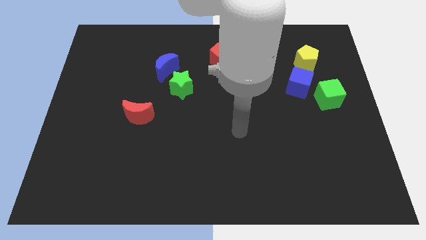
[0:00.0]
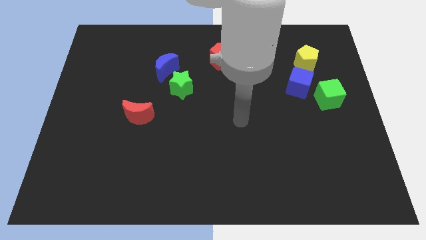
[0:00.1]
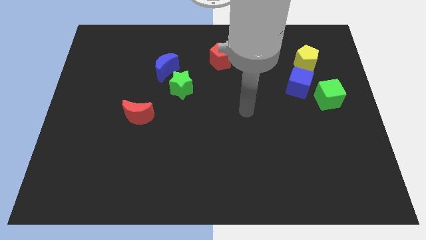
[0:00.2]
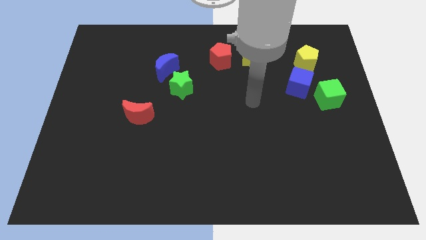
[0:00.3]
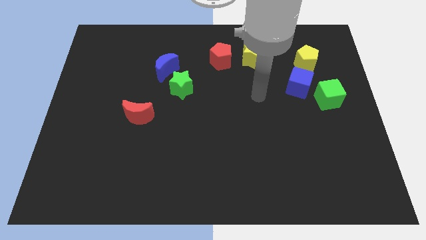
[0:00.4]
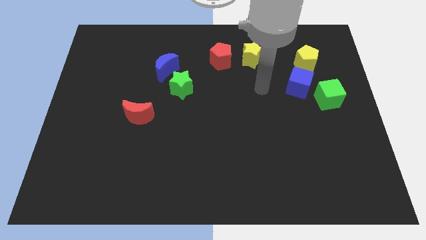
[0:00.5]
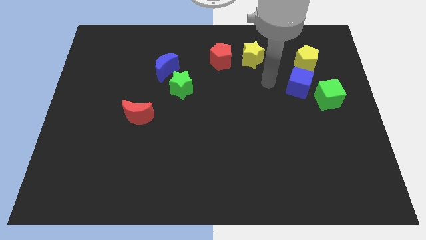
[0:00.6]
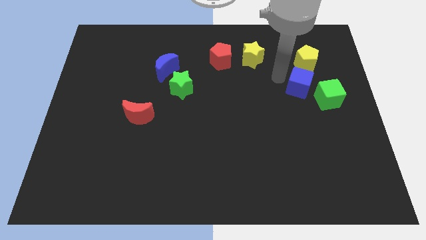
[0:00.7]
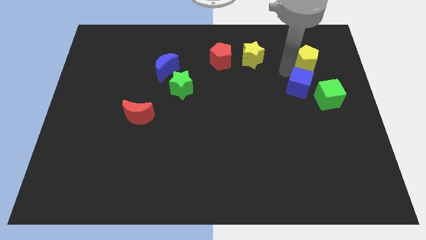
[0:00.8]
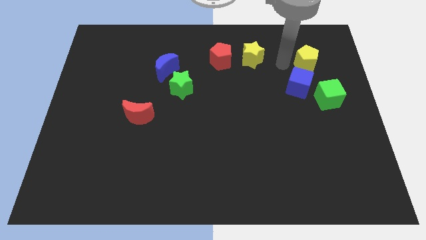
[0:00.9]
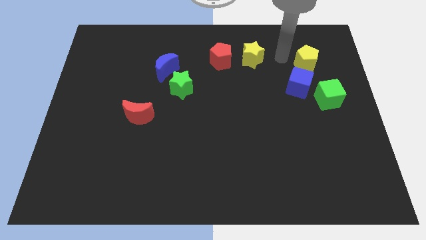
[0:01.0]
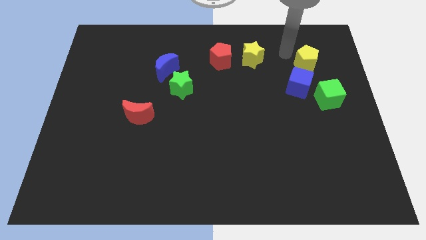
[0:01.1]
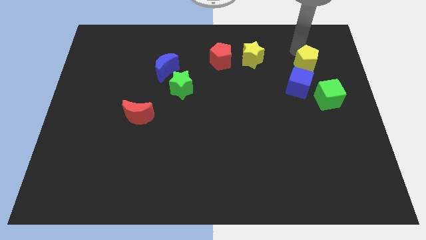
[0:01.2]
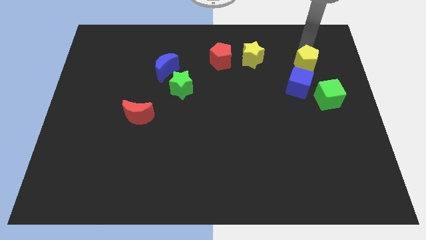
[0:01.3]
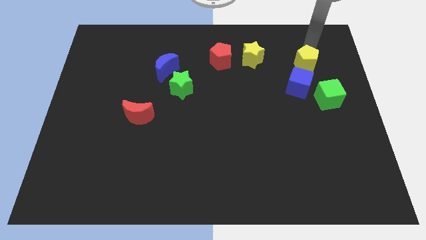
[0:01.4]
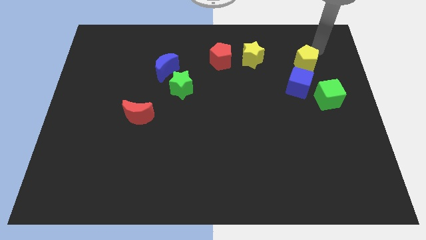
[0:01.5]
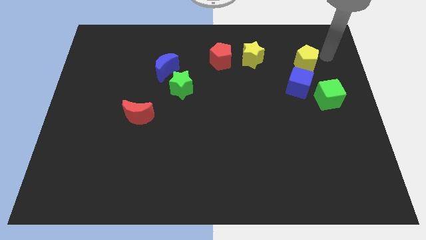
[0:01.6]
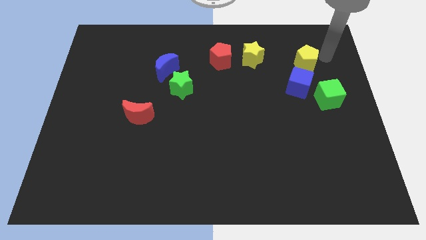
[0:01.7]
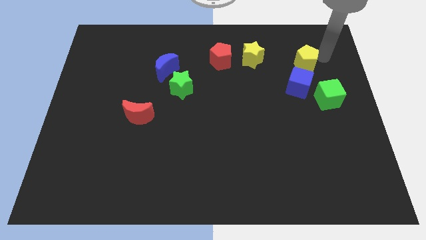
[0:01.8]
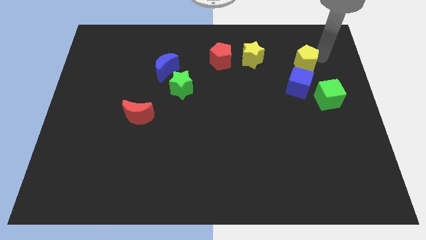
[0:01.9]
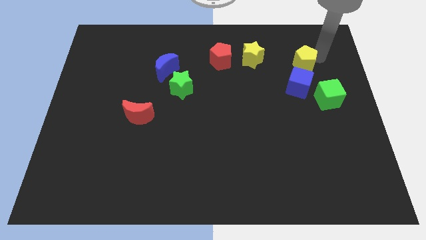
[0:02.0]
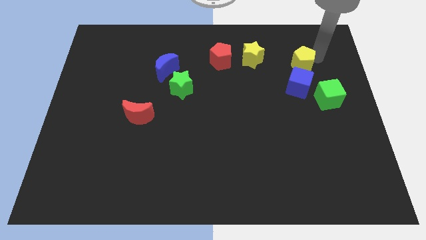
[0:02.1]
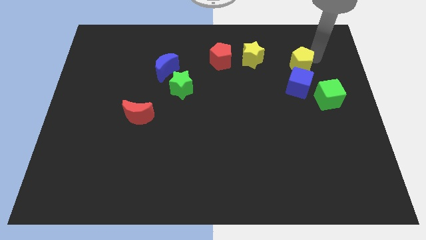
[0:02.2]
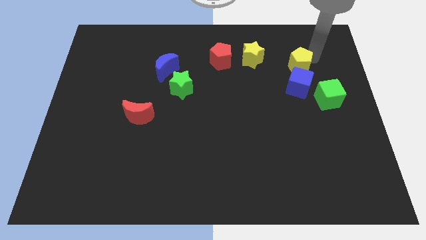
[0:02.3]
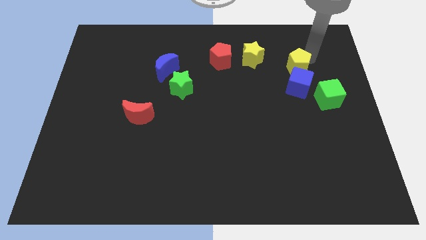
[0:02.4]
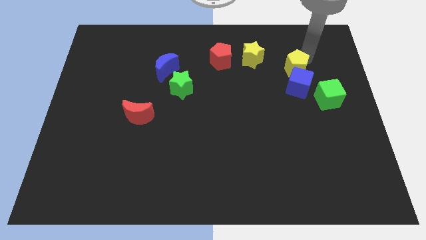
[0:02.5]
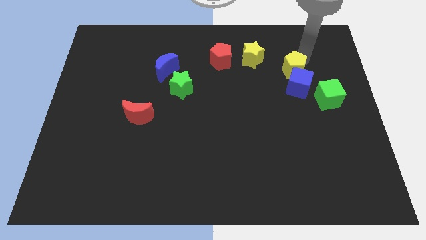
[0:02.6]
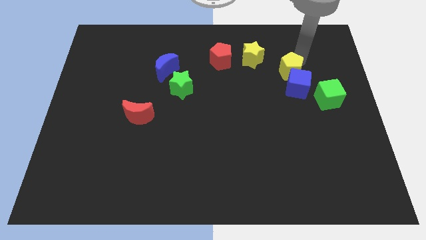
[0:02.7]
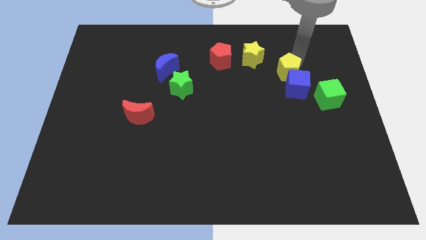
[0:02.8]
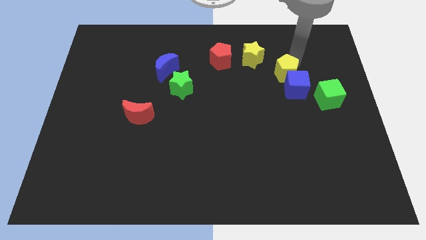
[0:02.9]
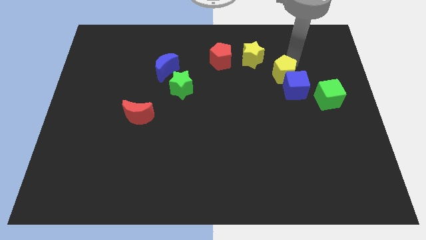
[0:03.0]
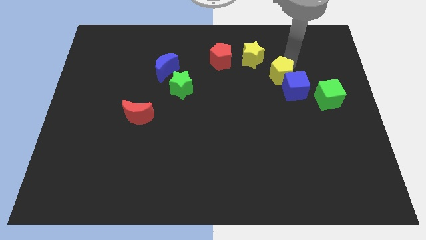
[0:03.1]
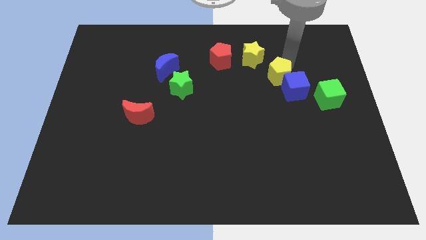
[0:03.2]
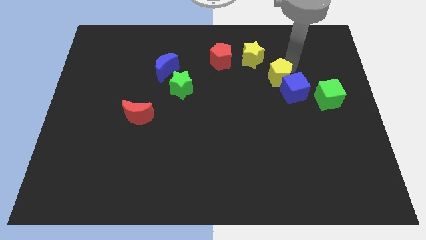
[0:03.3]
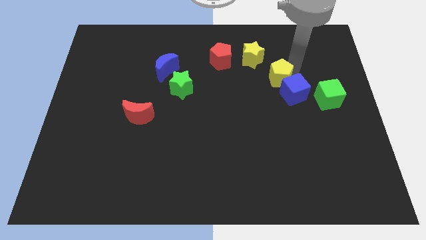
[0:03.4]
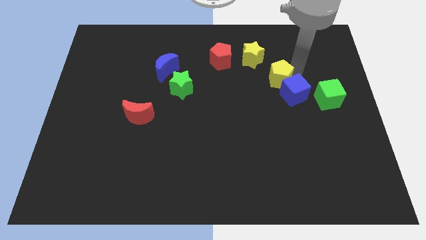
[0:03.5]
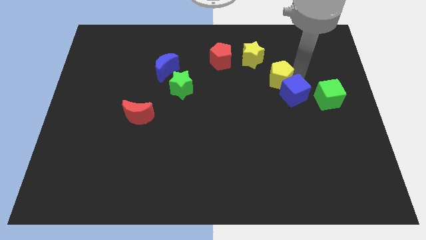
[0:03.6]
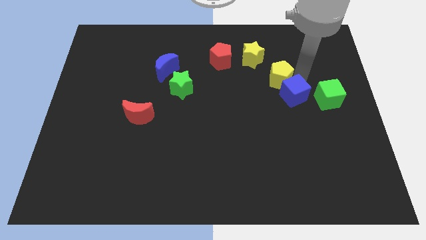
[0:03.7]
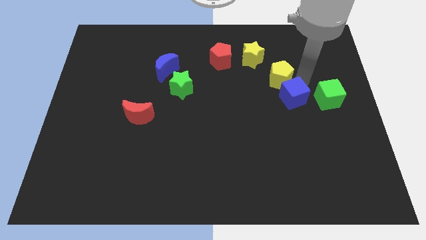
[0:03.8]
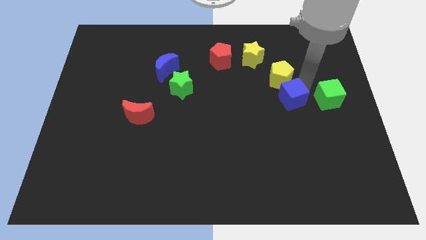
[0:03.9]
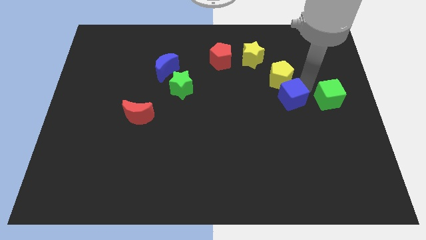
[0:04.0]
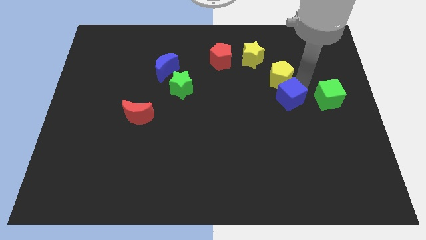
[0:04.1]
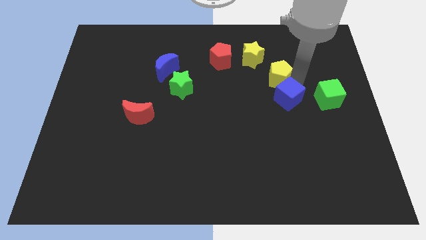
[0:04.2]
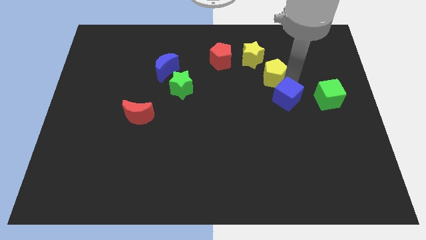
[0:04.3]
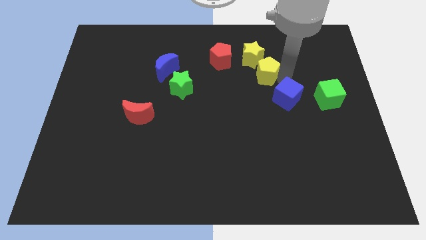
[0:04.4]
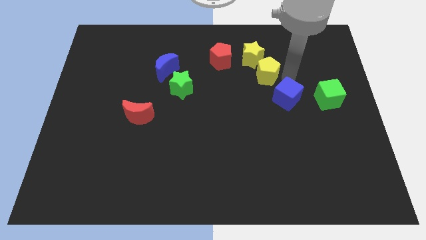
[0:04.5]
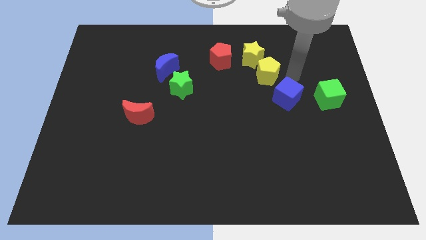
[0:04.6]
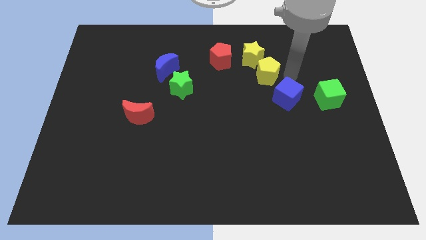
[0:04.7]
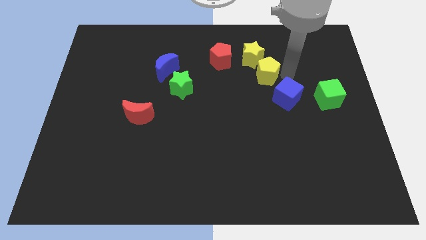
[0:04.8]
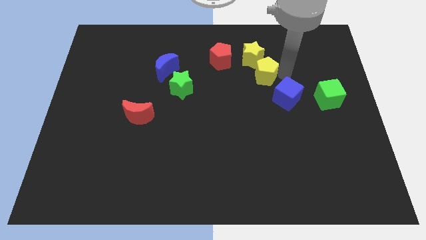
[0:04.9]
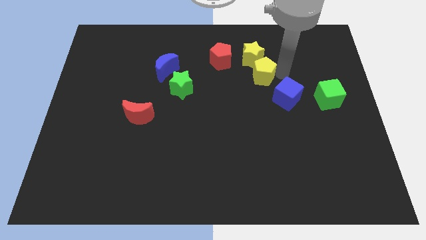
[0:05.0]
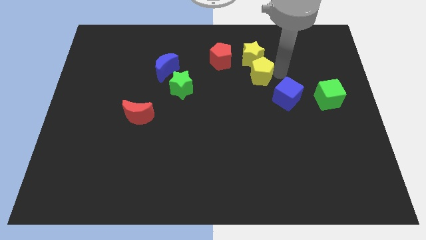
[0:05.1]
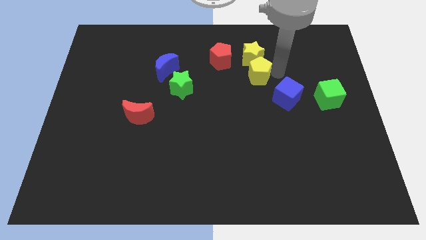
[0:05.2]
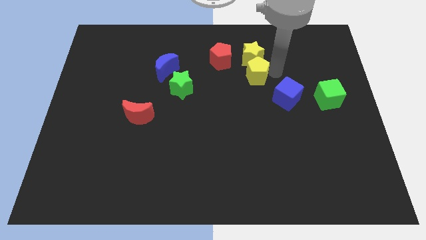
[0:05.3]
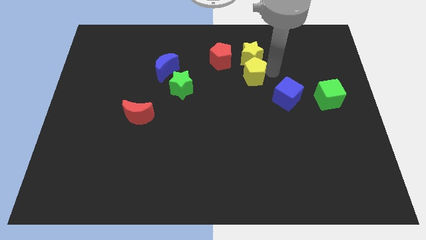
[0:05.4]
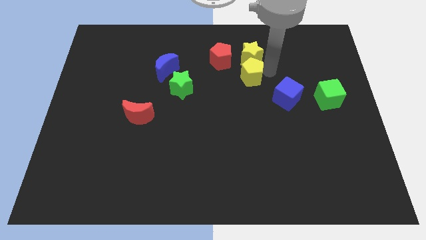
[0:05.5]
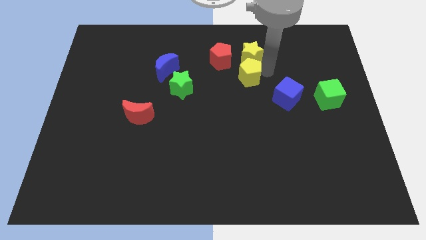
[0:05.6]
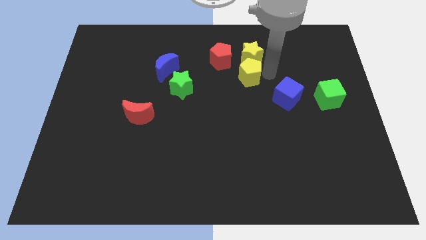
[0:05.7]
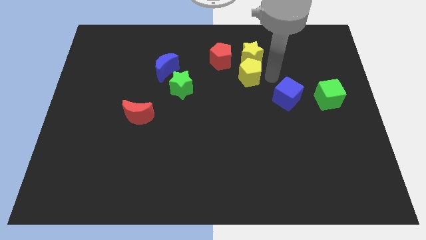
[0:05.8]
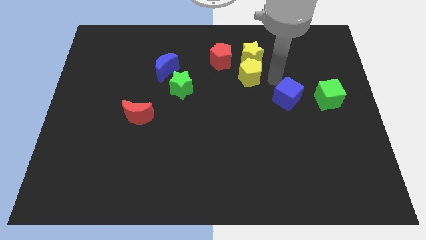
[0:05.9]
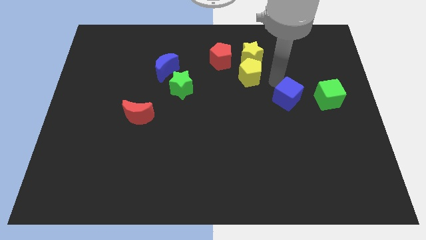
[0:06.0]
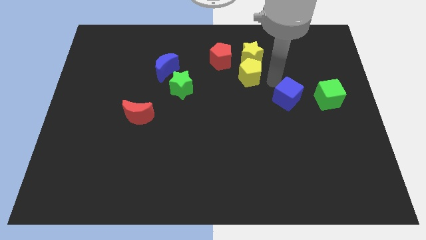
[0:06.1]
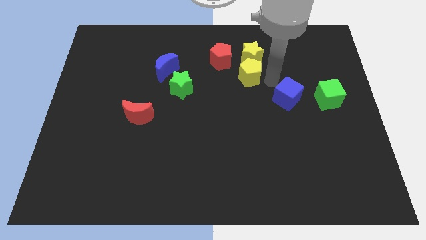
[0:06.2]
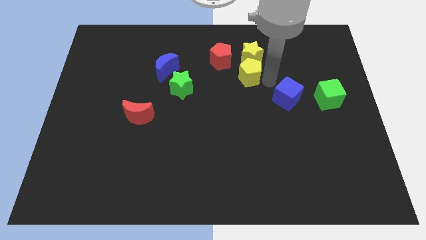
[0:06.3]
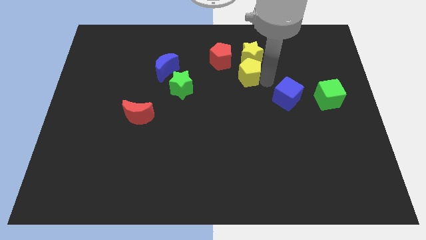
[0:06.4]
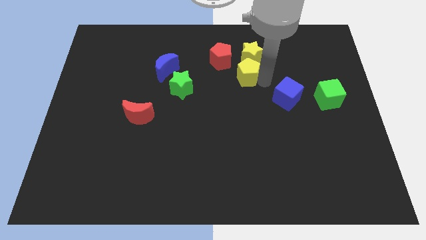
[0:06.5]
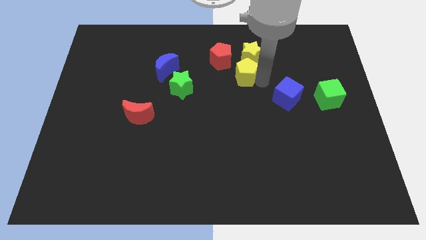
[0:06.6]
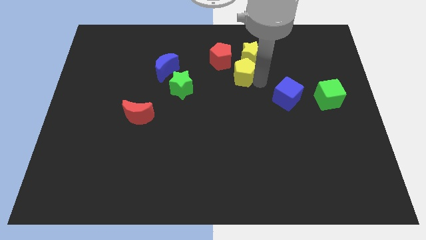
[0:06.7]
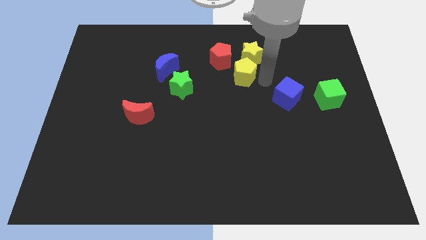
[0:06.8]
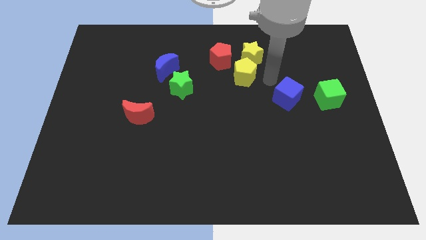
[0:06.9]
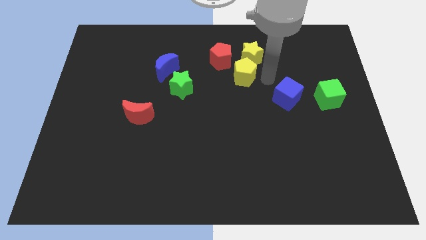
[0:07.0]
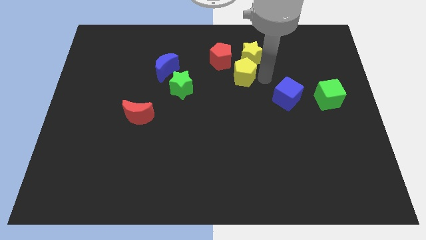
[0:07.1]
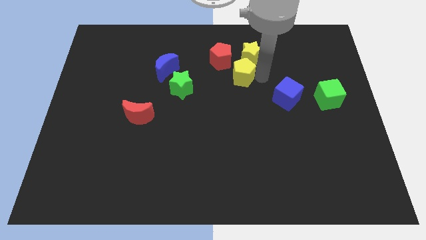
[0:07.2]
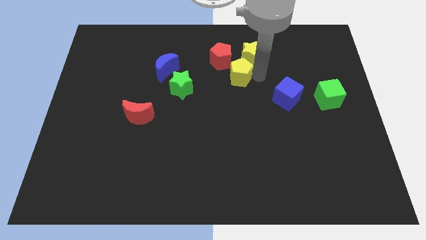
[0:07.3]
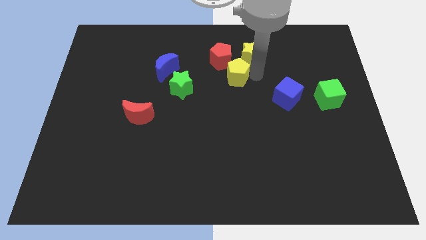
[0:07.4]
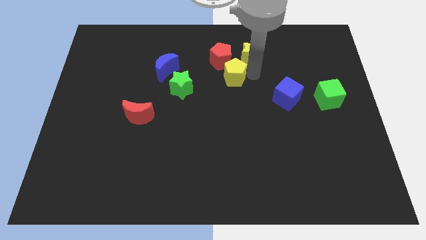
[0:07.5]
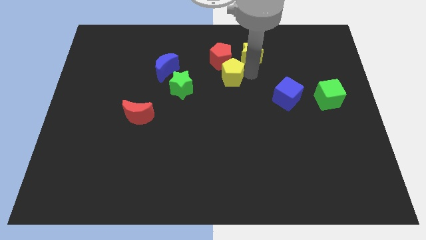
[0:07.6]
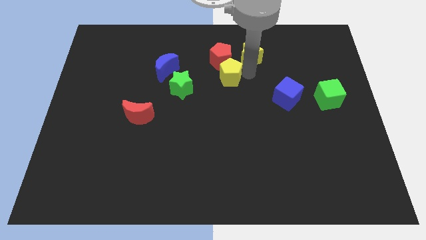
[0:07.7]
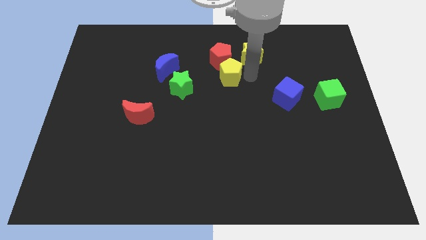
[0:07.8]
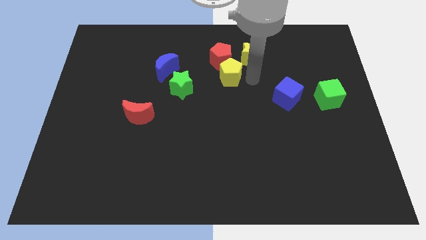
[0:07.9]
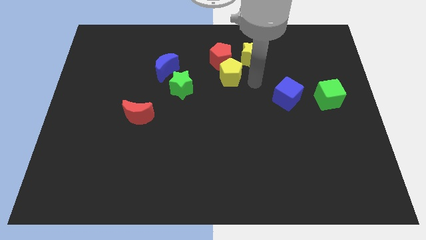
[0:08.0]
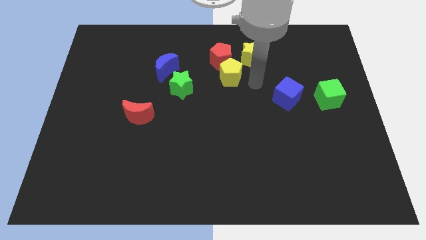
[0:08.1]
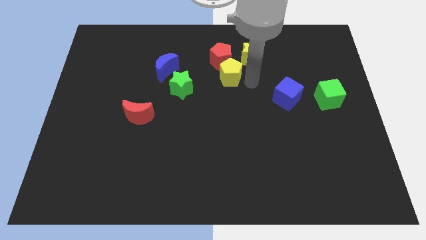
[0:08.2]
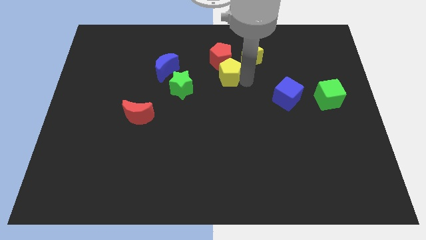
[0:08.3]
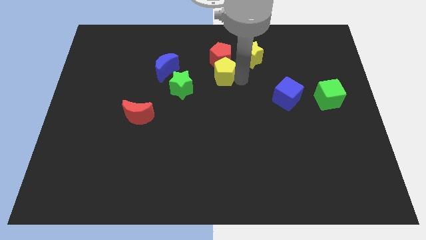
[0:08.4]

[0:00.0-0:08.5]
push the yellow pentagon left
